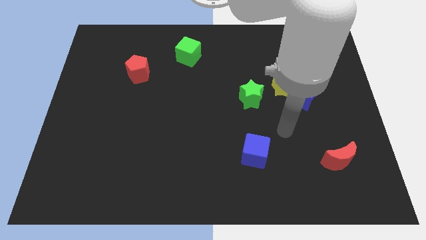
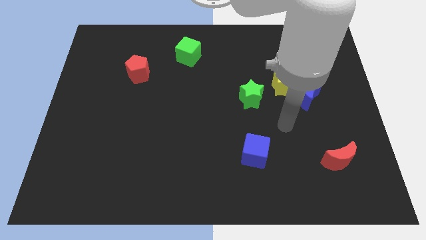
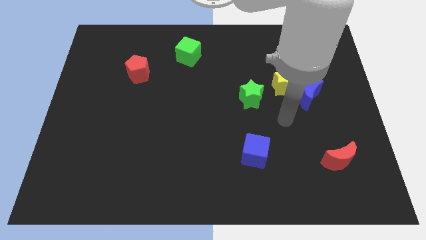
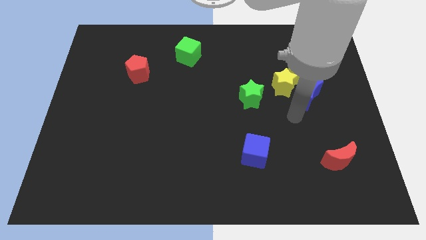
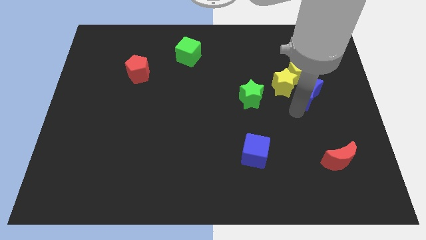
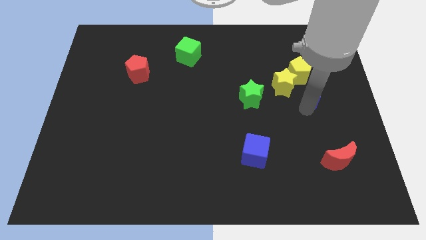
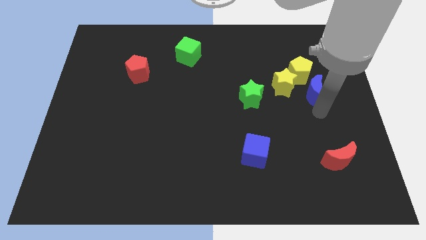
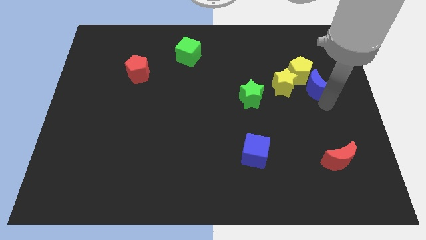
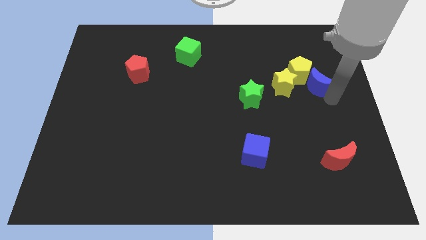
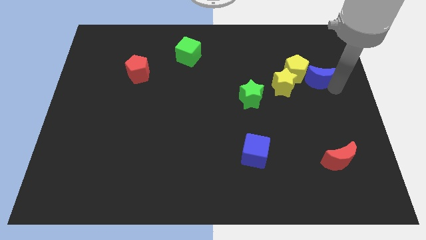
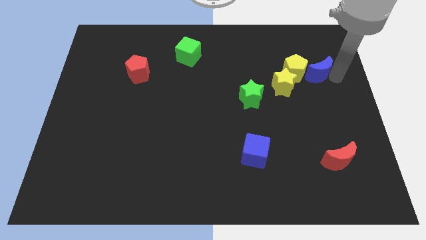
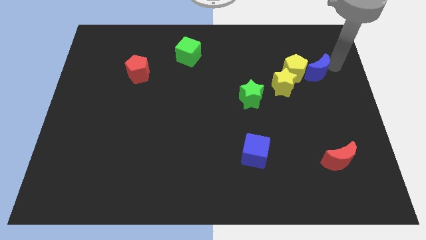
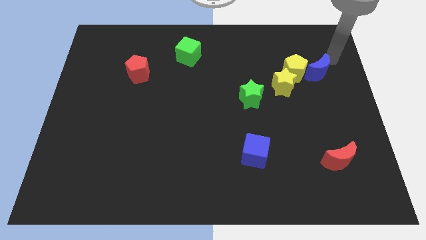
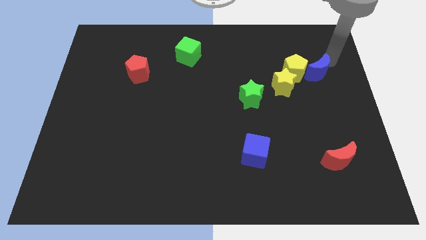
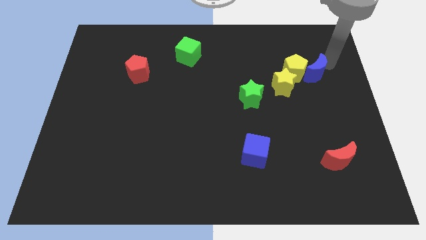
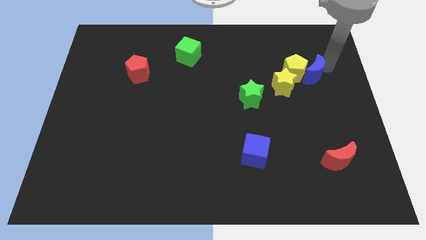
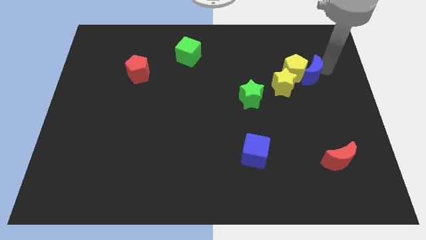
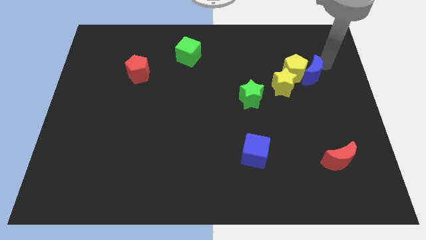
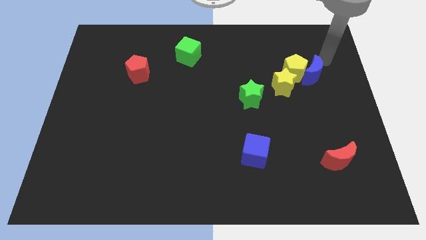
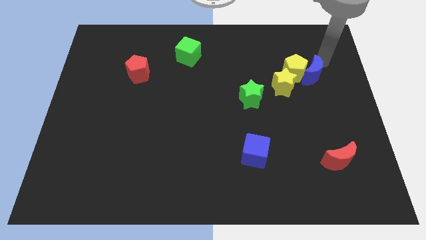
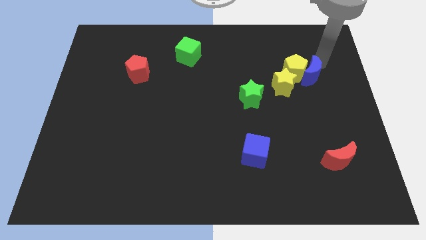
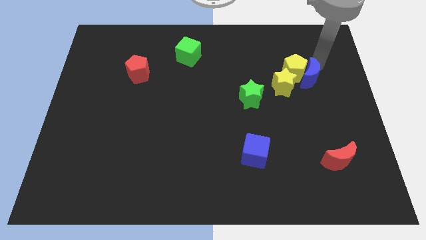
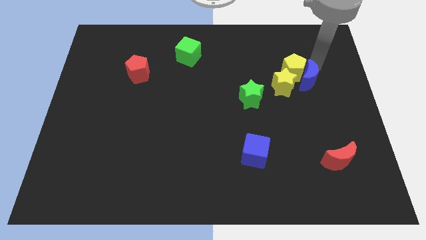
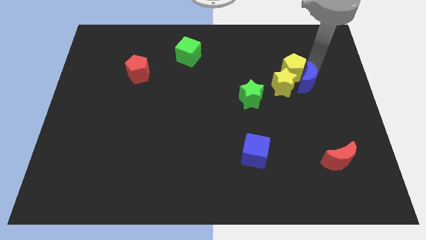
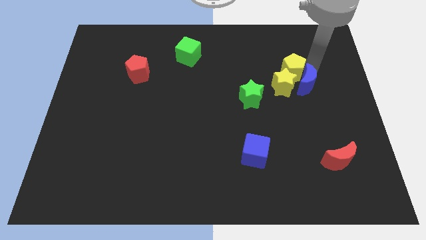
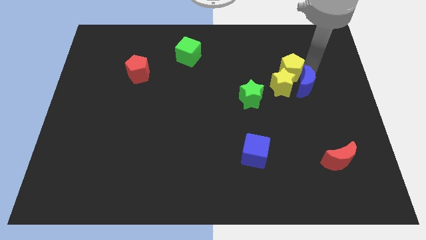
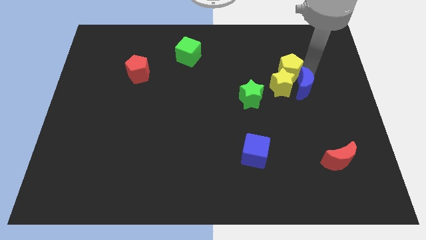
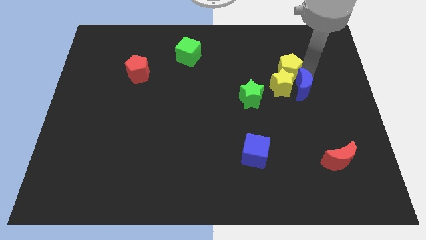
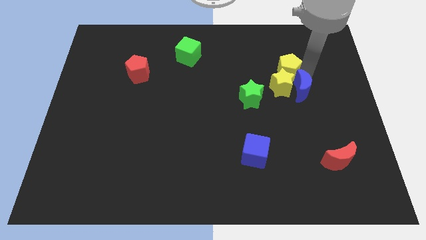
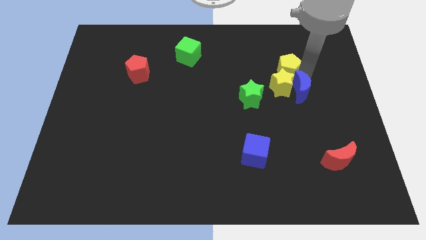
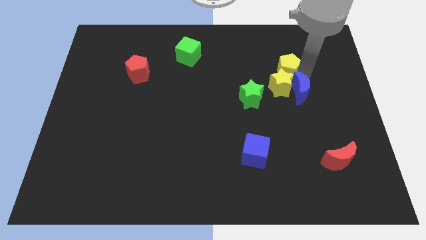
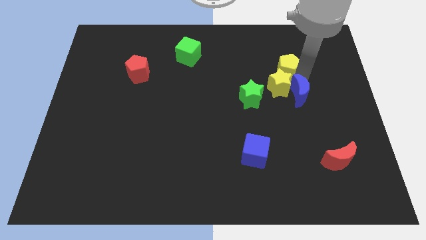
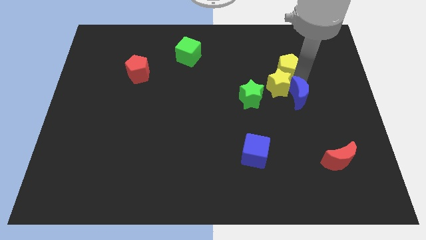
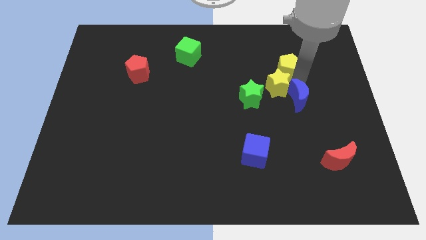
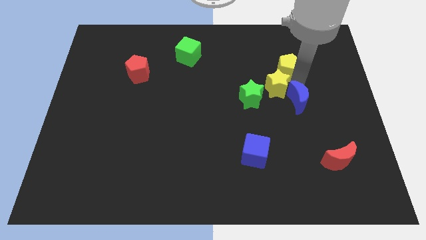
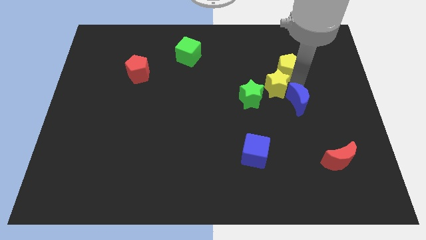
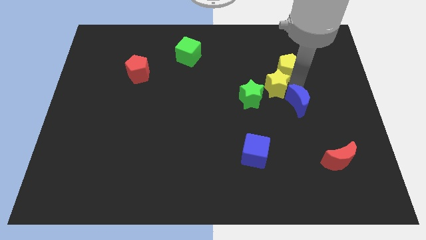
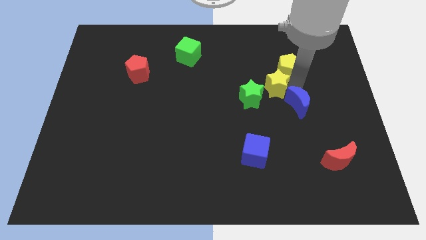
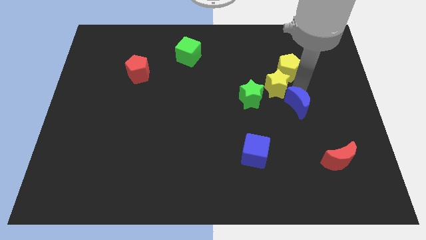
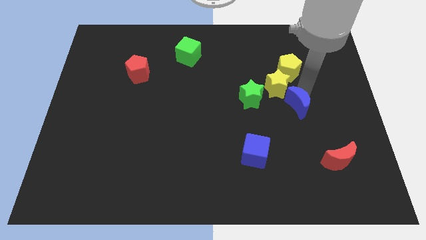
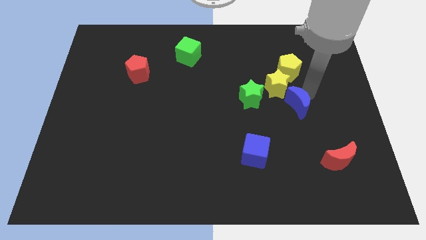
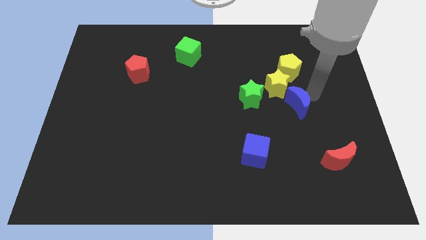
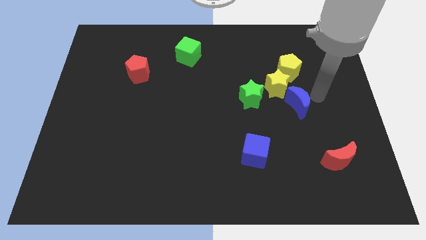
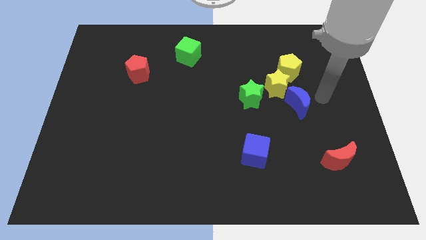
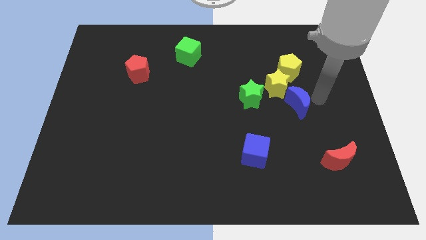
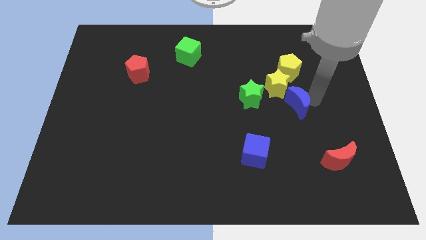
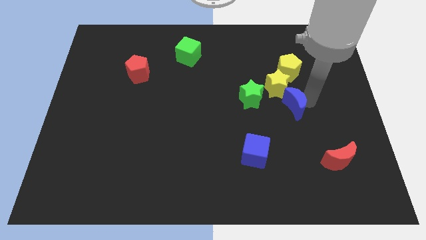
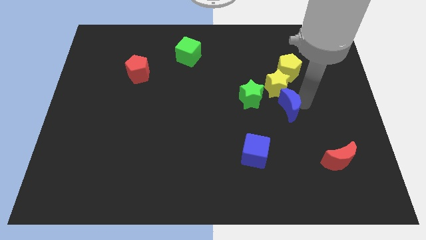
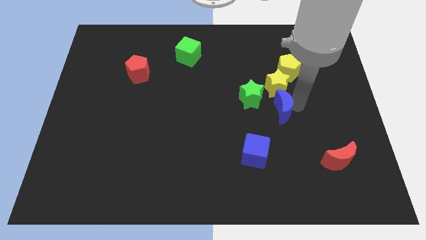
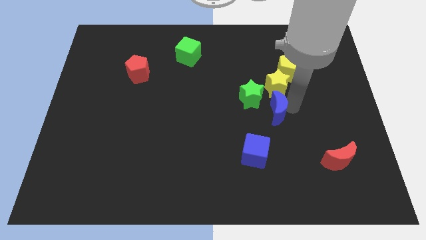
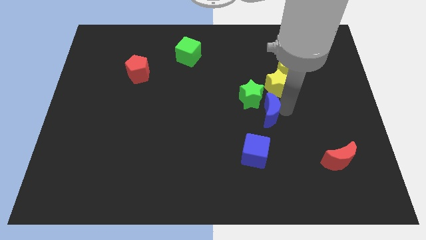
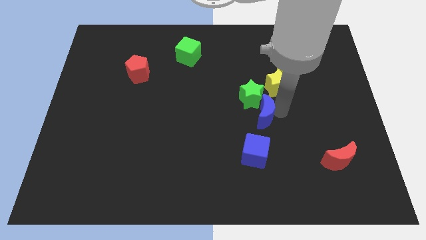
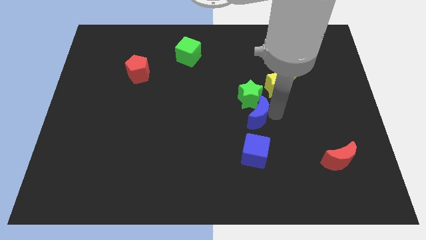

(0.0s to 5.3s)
move the blue moon to the middle
